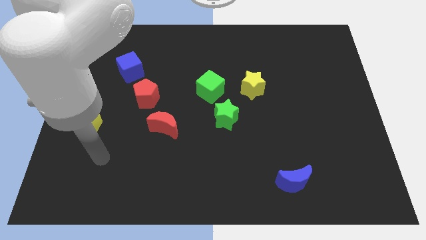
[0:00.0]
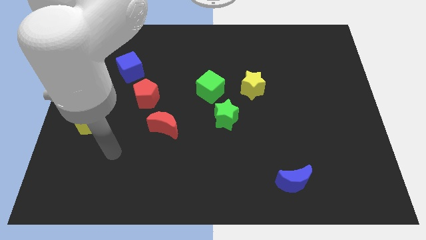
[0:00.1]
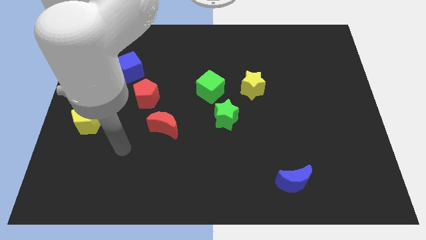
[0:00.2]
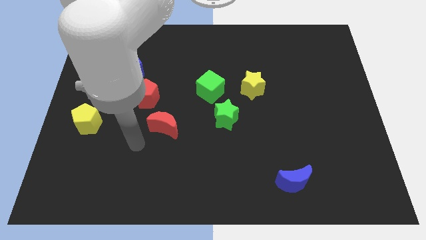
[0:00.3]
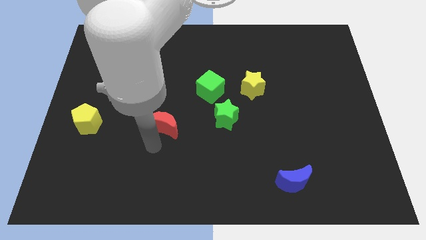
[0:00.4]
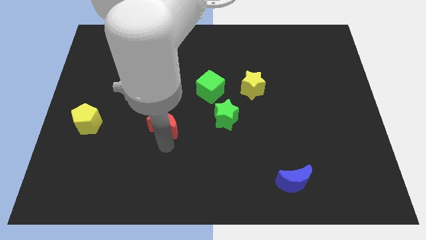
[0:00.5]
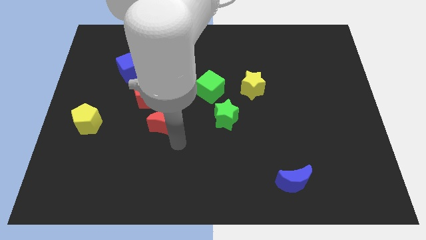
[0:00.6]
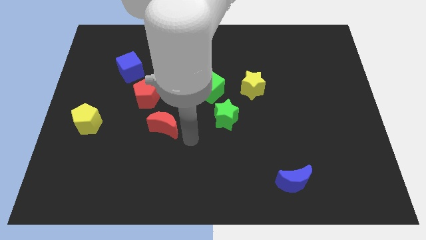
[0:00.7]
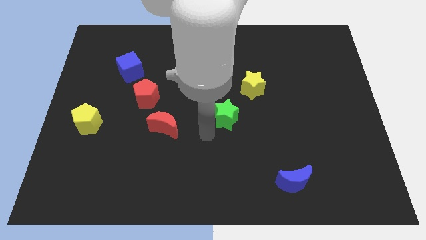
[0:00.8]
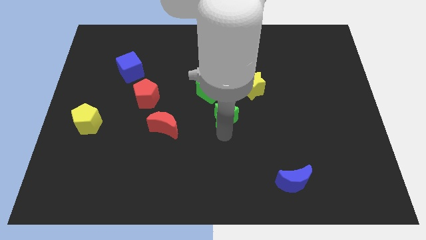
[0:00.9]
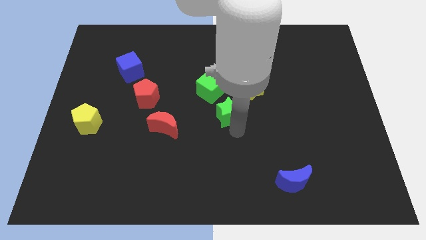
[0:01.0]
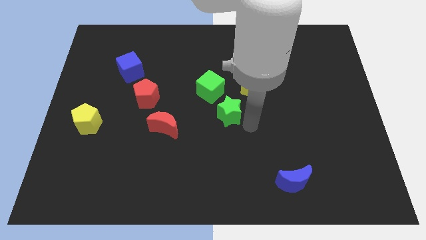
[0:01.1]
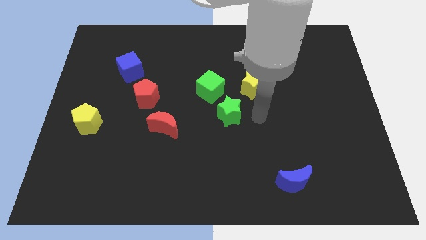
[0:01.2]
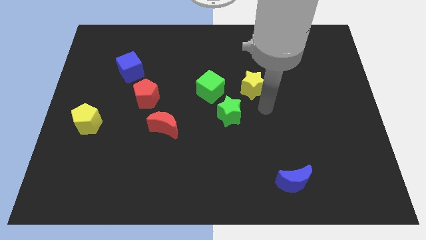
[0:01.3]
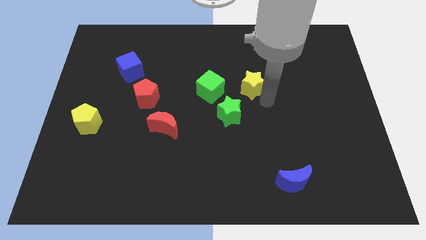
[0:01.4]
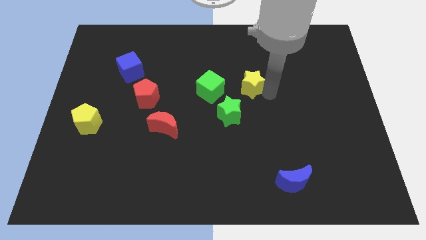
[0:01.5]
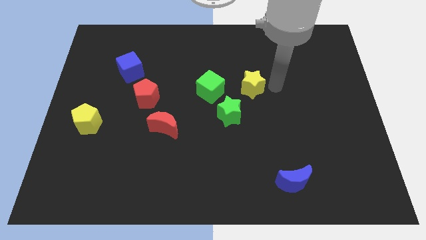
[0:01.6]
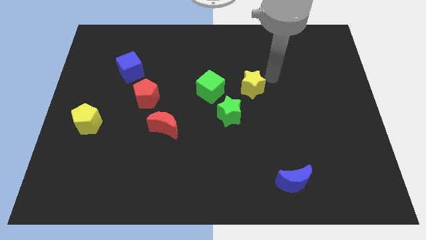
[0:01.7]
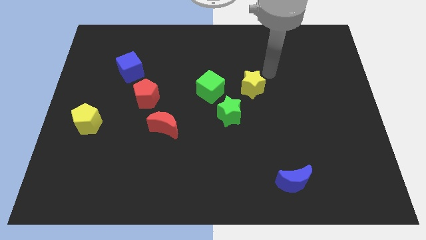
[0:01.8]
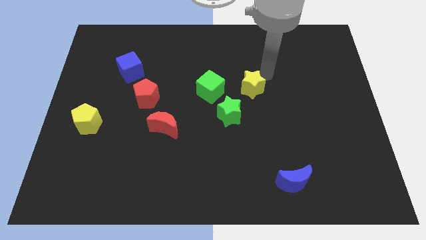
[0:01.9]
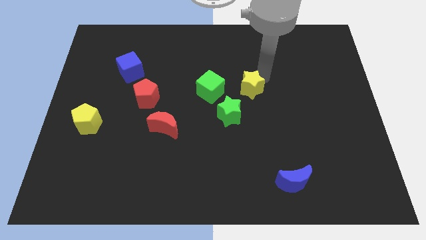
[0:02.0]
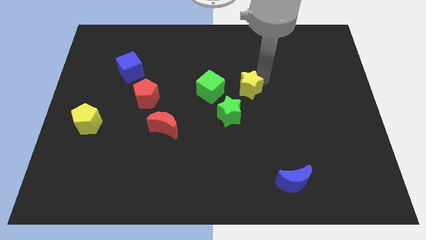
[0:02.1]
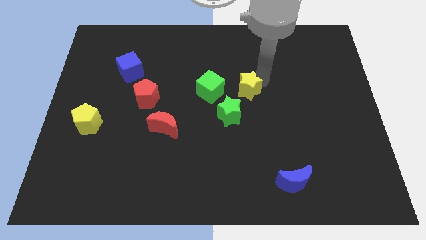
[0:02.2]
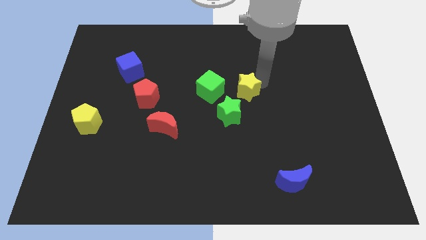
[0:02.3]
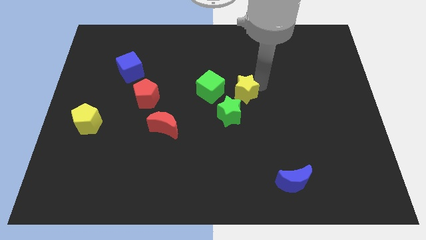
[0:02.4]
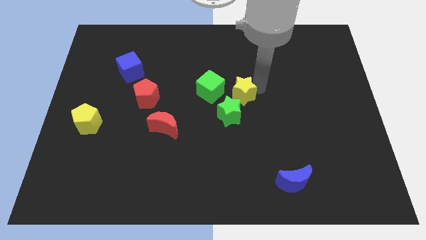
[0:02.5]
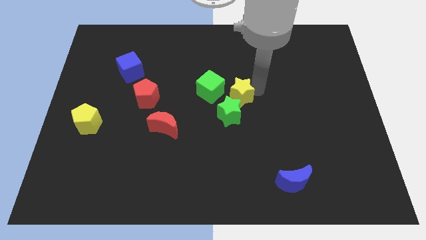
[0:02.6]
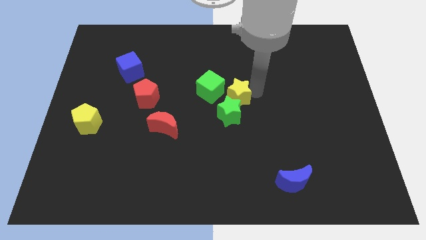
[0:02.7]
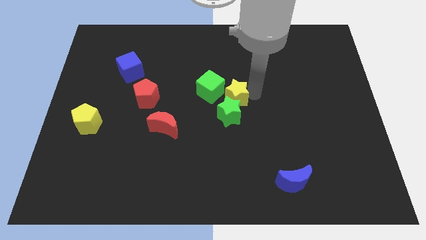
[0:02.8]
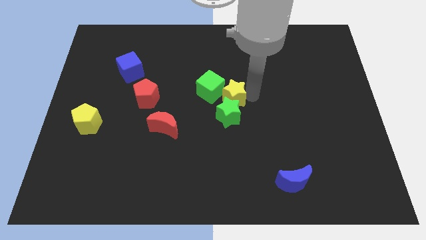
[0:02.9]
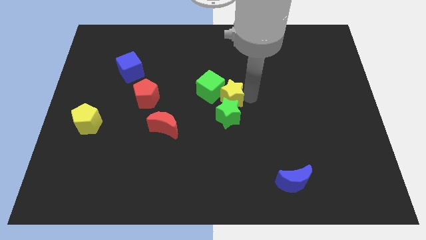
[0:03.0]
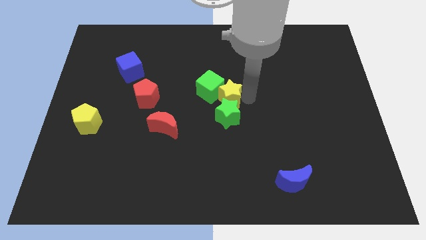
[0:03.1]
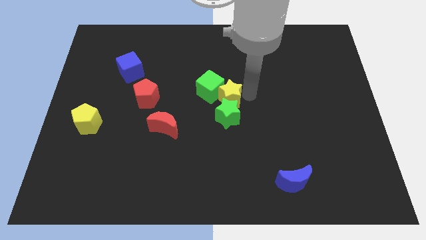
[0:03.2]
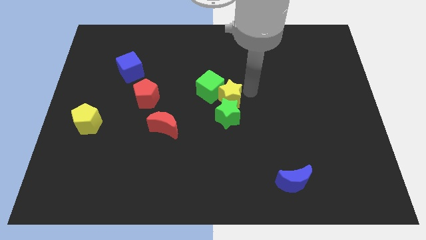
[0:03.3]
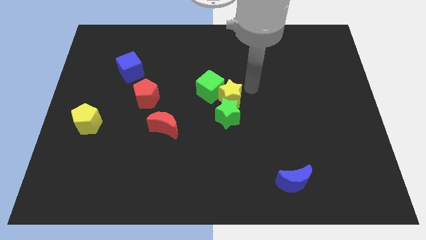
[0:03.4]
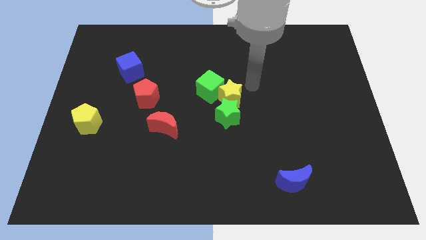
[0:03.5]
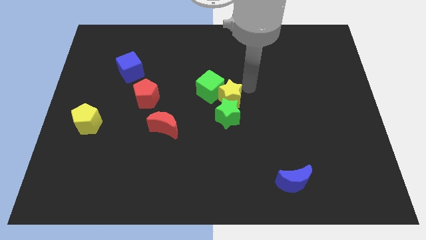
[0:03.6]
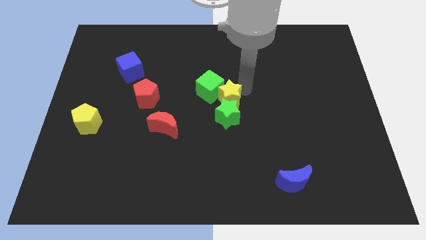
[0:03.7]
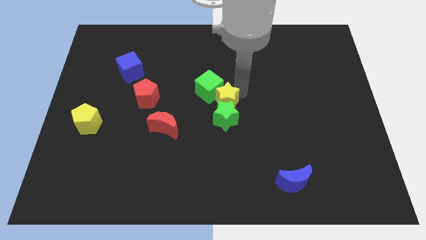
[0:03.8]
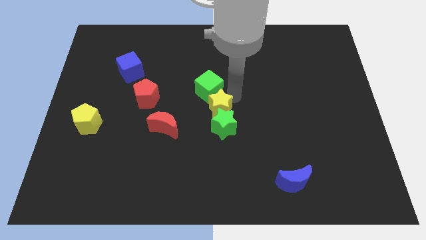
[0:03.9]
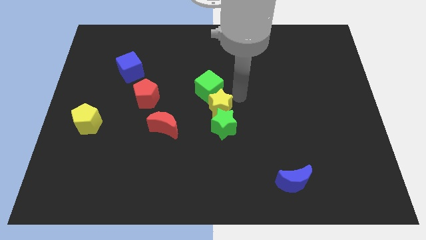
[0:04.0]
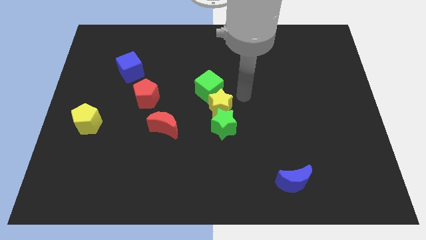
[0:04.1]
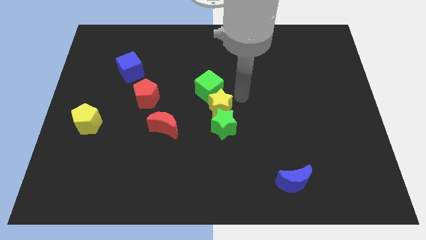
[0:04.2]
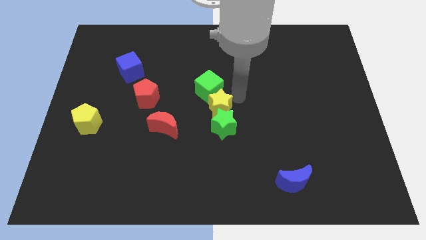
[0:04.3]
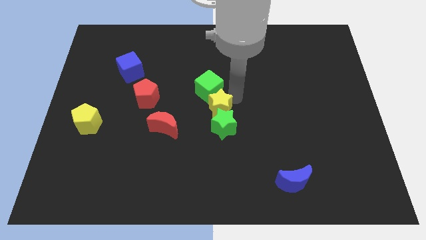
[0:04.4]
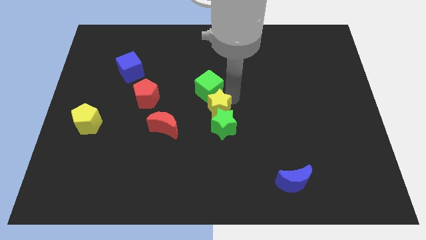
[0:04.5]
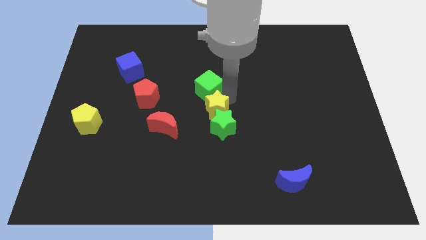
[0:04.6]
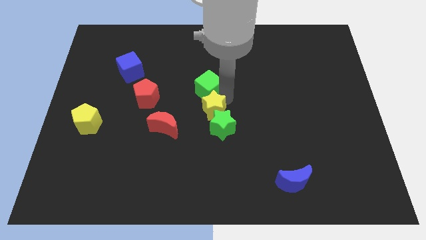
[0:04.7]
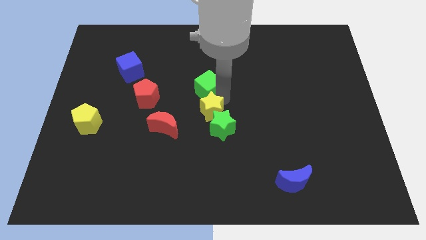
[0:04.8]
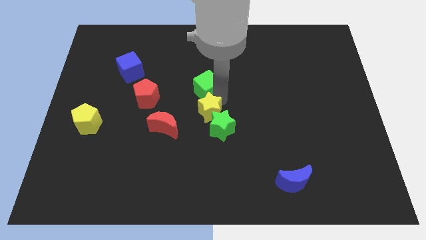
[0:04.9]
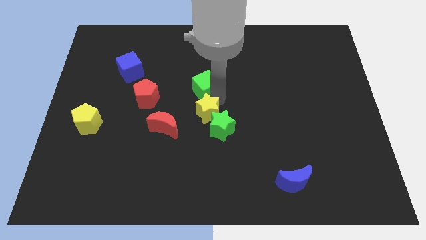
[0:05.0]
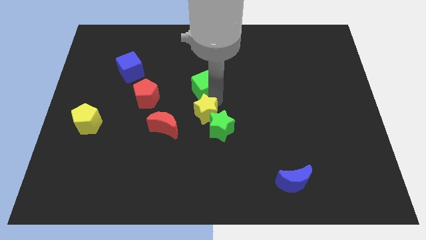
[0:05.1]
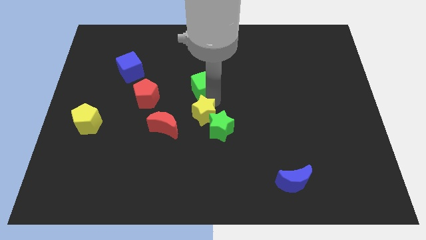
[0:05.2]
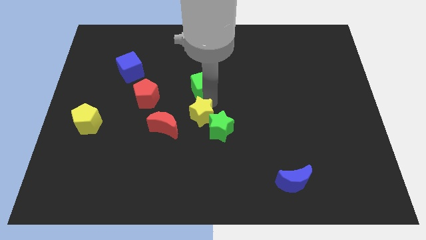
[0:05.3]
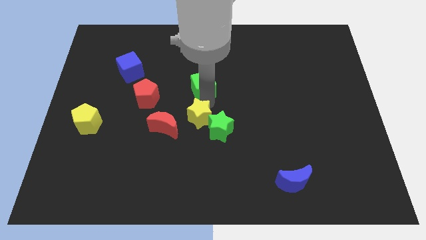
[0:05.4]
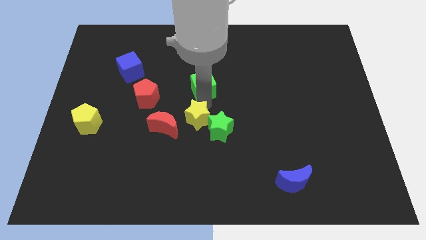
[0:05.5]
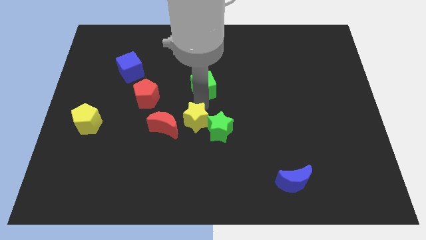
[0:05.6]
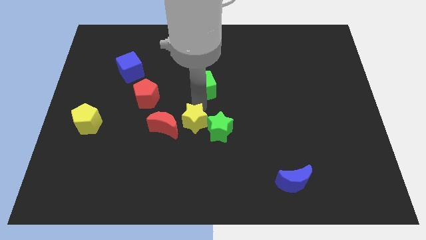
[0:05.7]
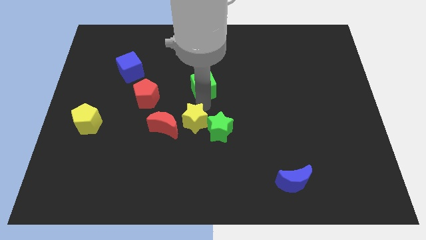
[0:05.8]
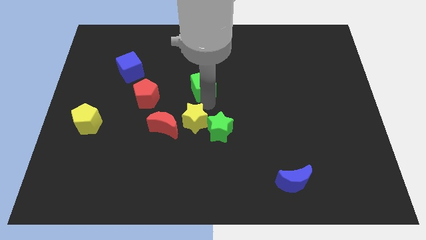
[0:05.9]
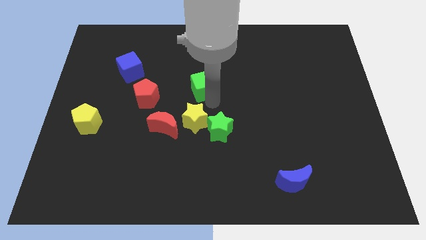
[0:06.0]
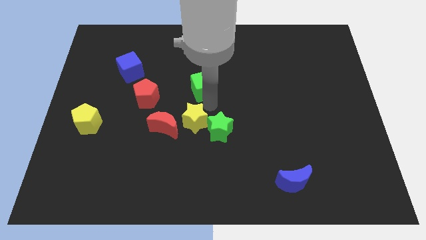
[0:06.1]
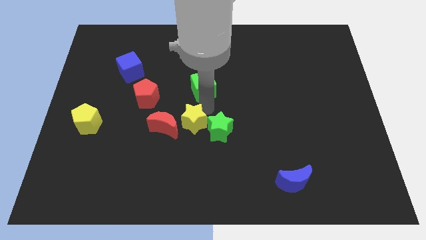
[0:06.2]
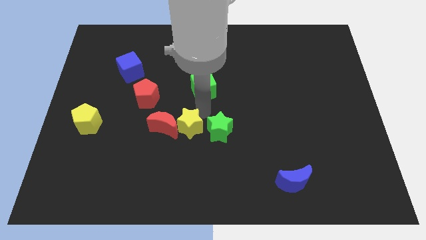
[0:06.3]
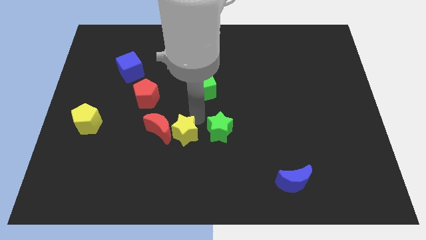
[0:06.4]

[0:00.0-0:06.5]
slide the yellow star downwards and left

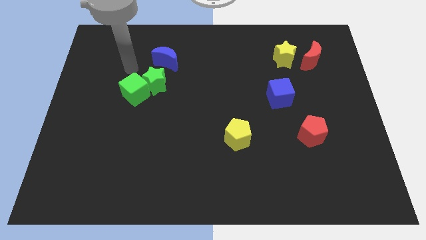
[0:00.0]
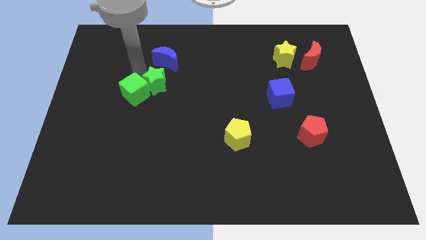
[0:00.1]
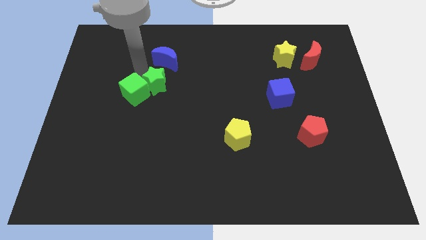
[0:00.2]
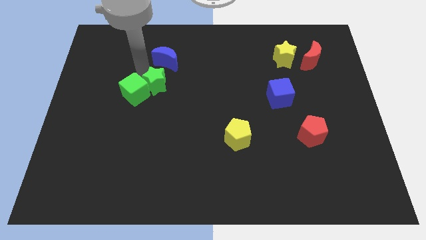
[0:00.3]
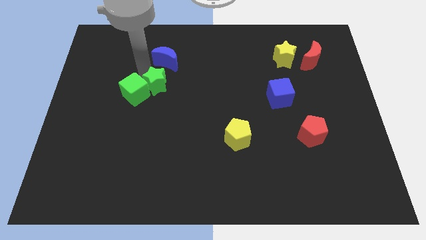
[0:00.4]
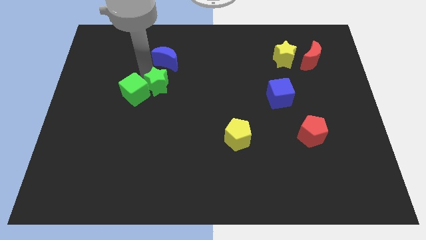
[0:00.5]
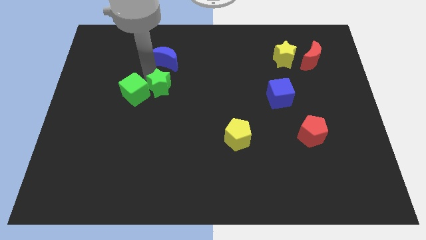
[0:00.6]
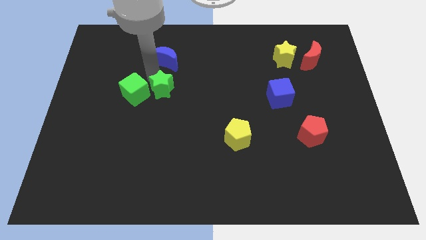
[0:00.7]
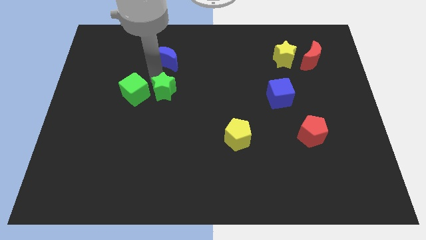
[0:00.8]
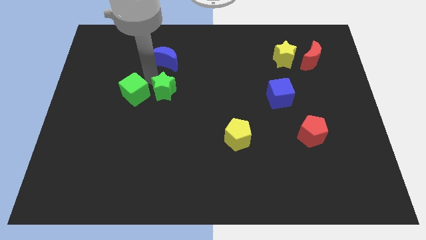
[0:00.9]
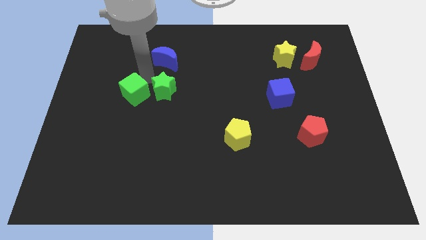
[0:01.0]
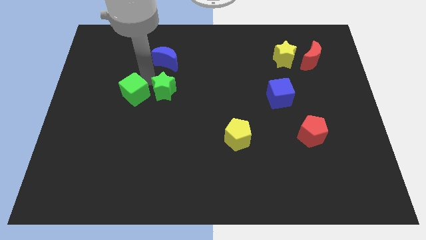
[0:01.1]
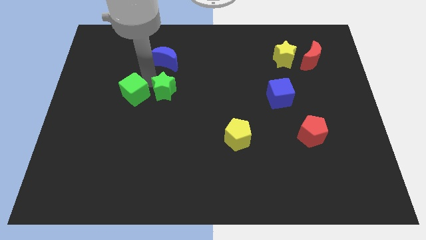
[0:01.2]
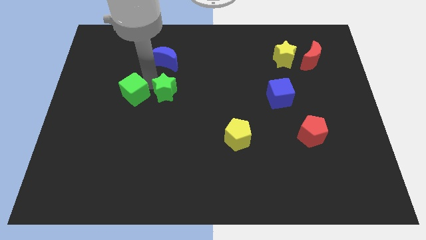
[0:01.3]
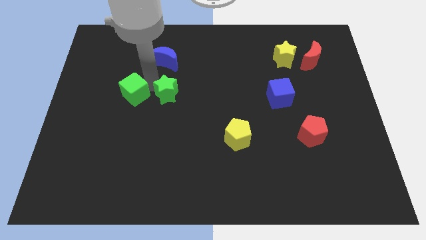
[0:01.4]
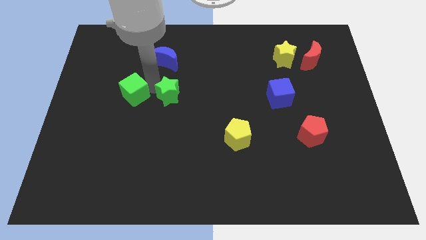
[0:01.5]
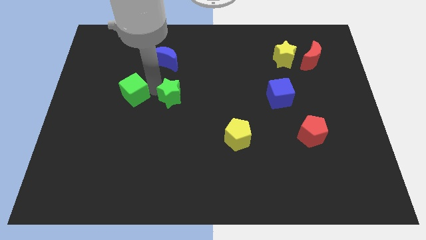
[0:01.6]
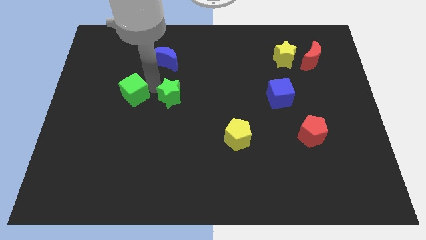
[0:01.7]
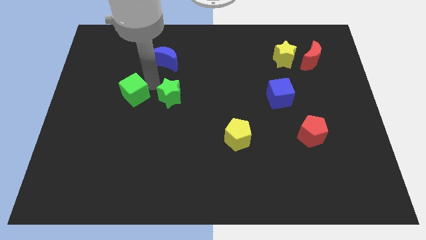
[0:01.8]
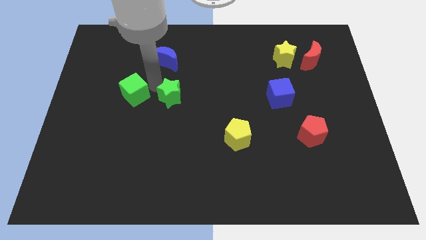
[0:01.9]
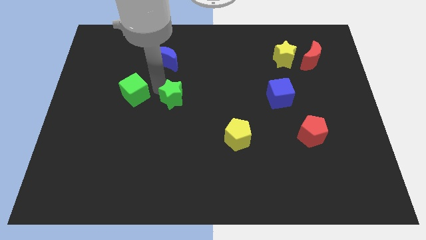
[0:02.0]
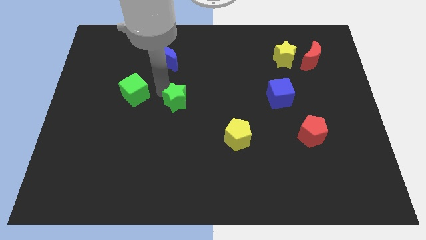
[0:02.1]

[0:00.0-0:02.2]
move the green star diagonally down and right a little bit
